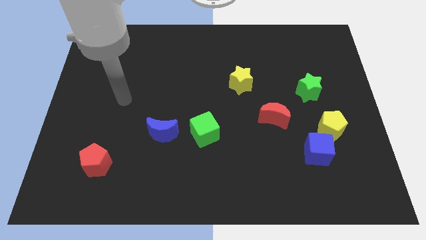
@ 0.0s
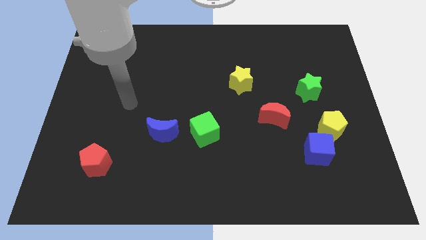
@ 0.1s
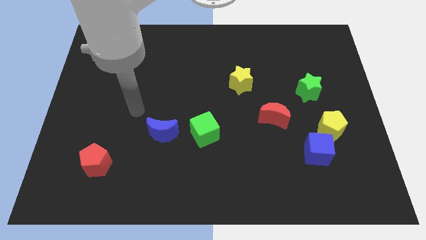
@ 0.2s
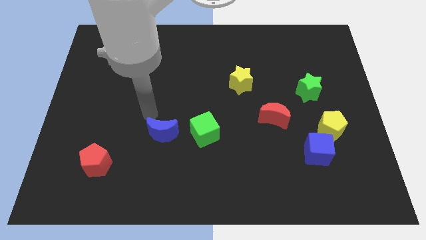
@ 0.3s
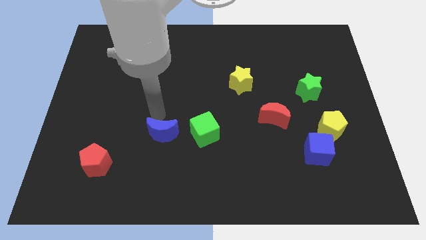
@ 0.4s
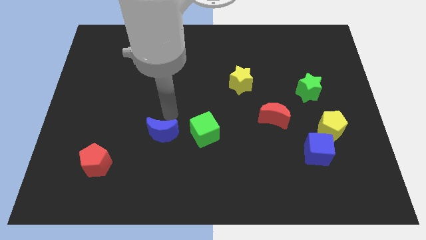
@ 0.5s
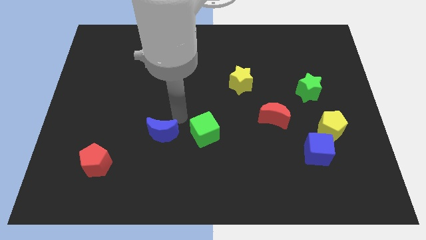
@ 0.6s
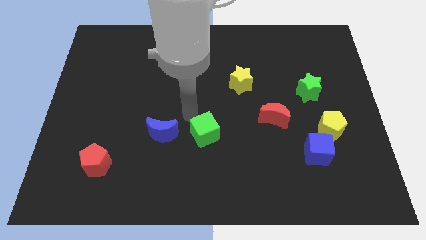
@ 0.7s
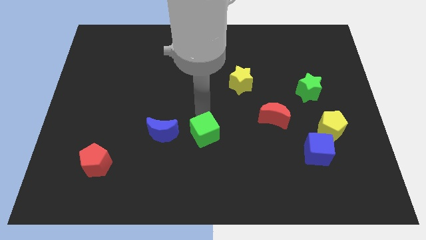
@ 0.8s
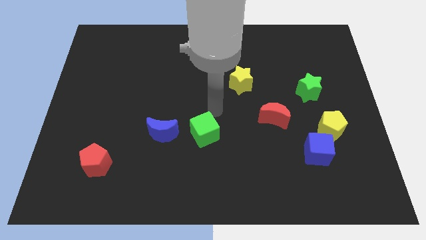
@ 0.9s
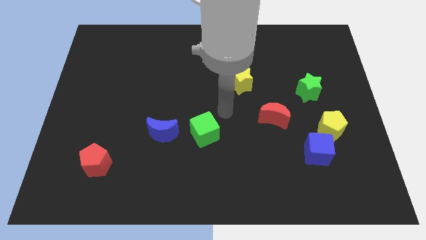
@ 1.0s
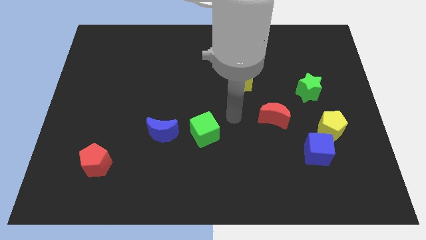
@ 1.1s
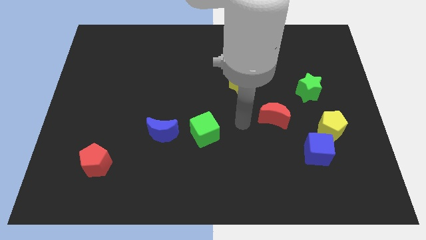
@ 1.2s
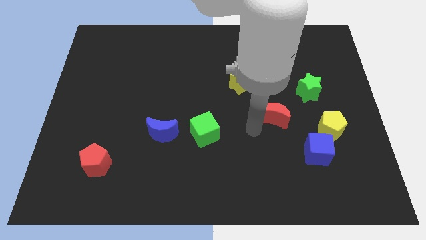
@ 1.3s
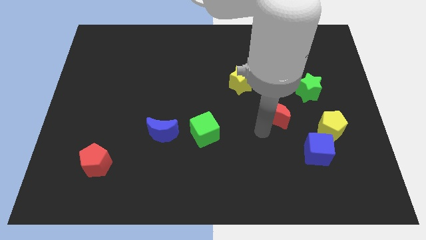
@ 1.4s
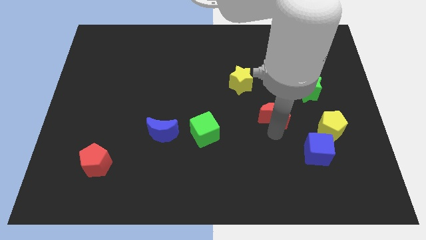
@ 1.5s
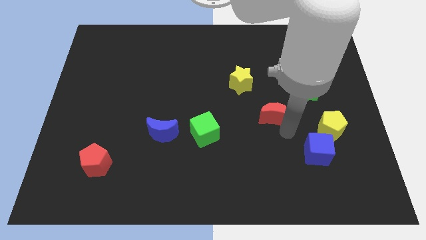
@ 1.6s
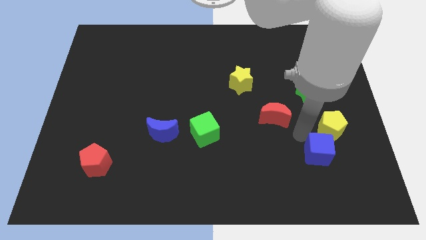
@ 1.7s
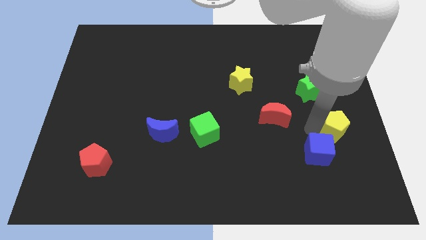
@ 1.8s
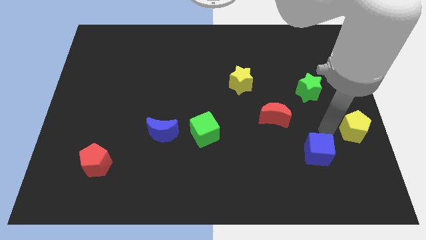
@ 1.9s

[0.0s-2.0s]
move the blue cube away from the yellow pentagon

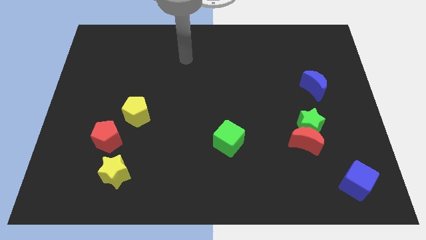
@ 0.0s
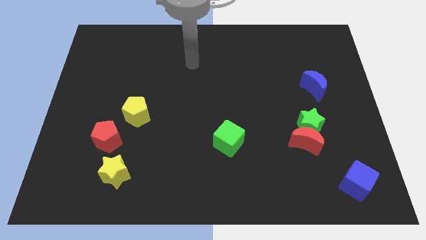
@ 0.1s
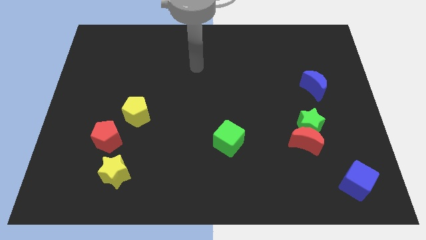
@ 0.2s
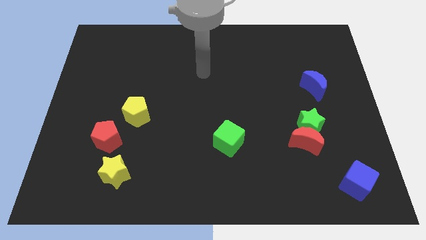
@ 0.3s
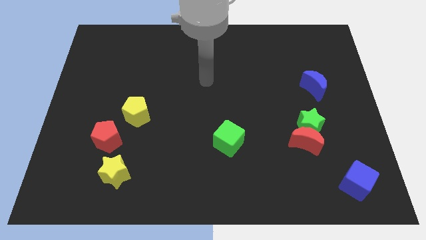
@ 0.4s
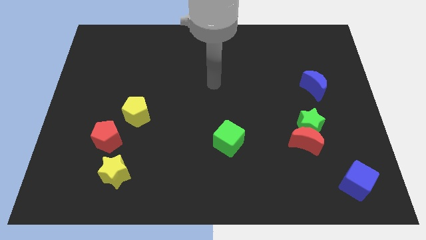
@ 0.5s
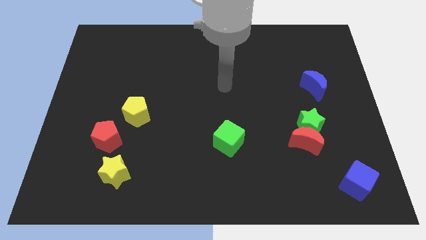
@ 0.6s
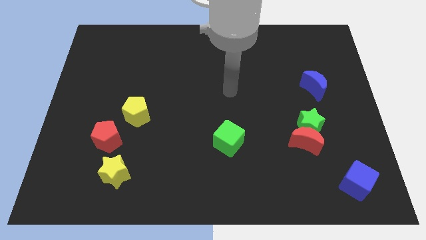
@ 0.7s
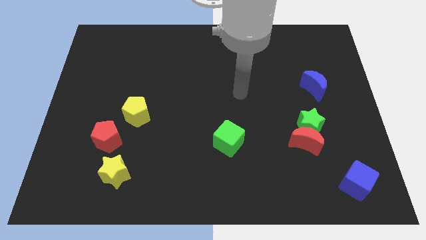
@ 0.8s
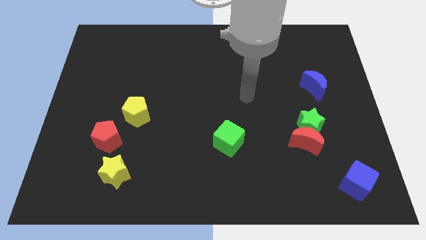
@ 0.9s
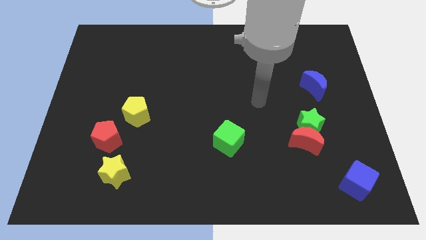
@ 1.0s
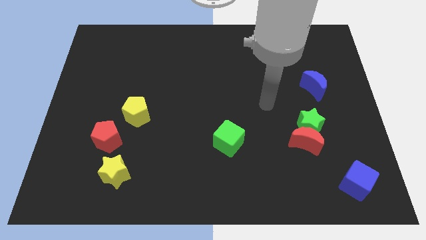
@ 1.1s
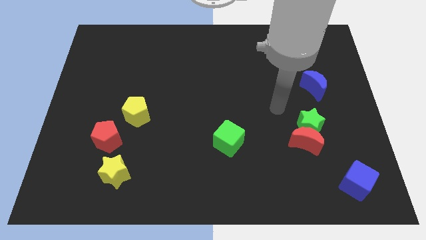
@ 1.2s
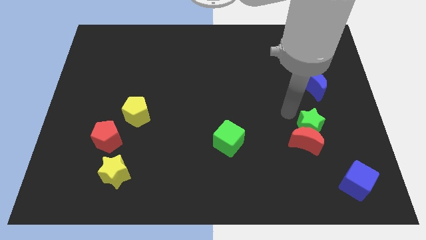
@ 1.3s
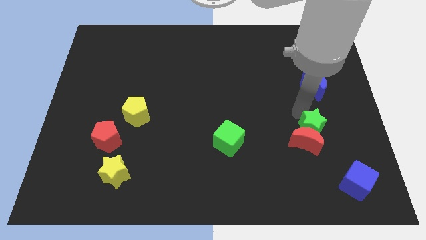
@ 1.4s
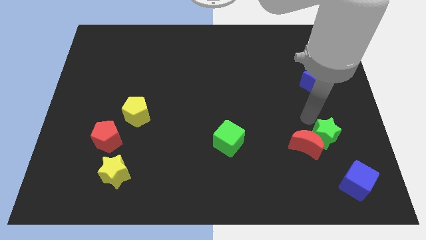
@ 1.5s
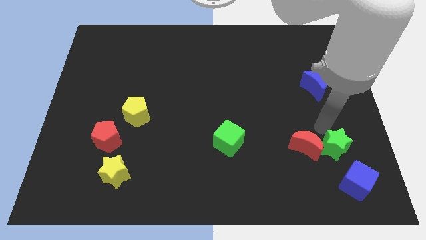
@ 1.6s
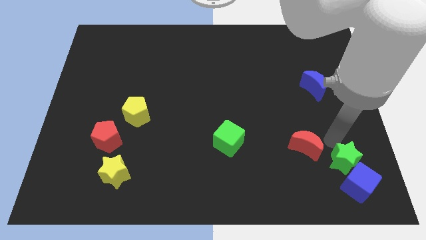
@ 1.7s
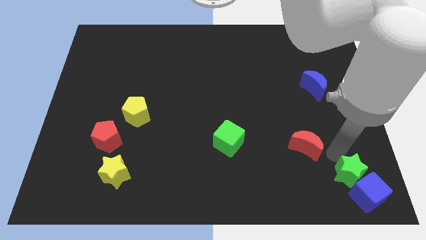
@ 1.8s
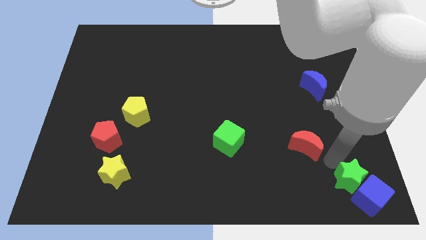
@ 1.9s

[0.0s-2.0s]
pull the red moon apart from the green star

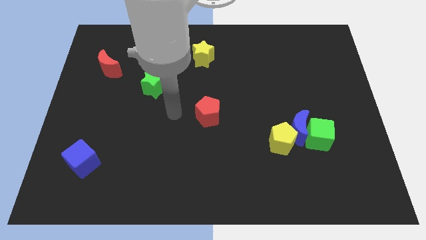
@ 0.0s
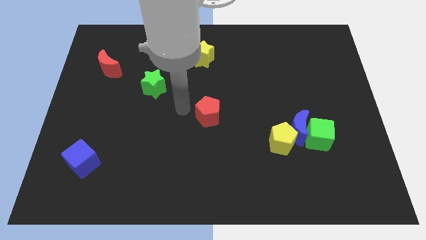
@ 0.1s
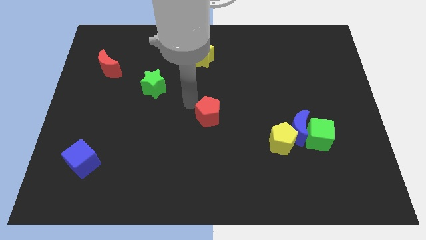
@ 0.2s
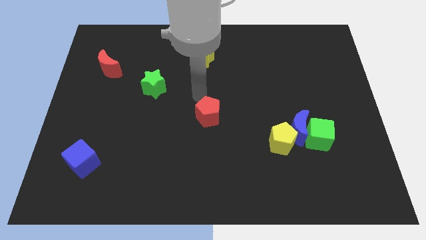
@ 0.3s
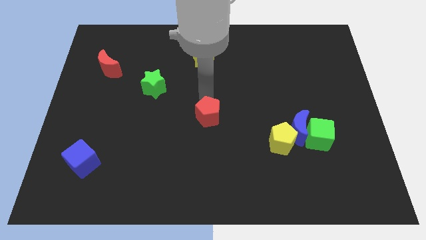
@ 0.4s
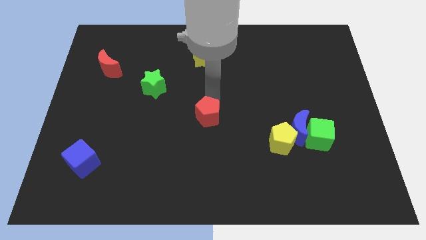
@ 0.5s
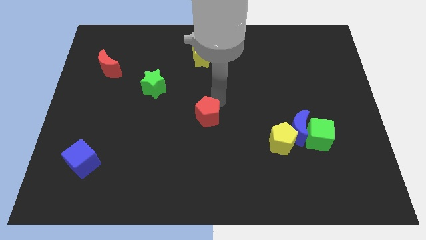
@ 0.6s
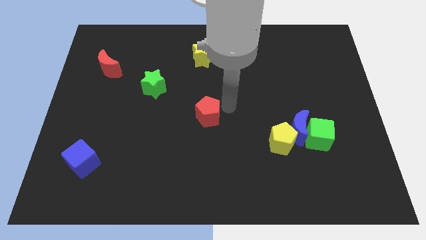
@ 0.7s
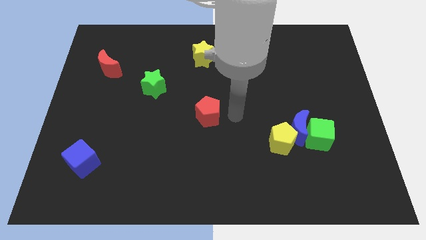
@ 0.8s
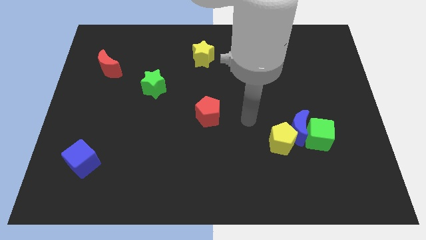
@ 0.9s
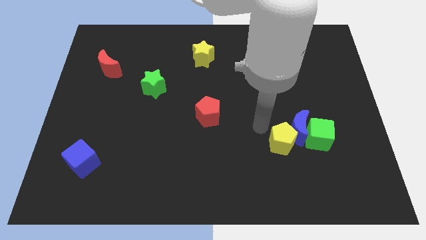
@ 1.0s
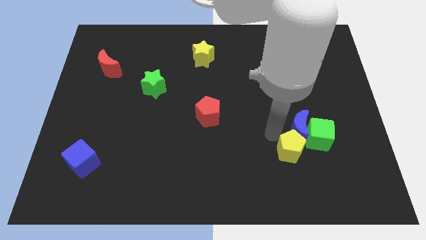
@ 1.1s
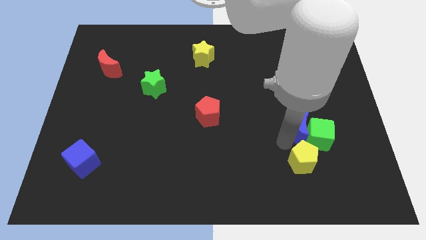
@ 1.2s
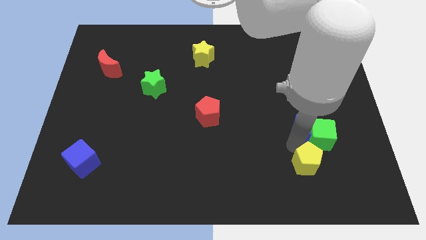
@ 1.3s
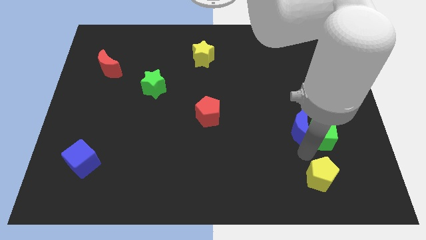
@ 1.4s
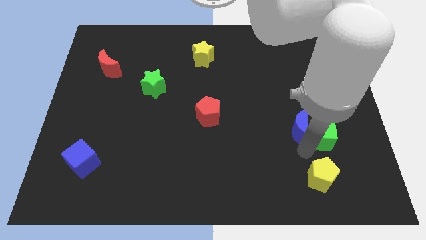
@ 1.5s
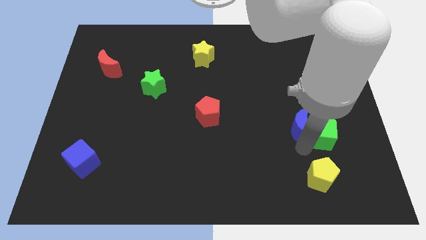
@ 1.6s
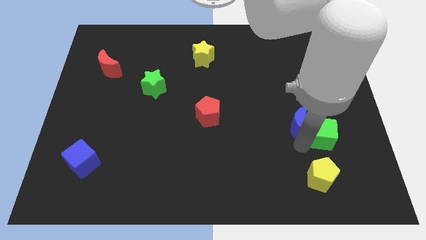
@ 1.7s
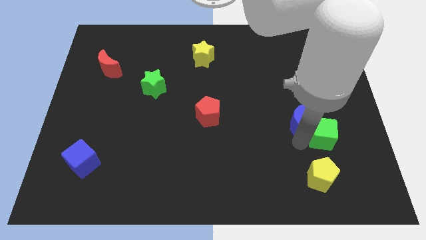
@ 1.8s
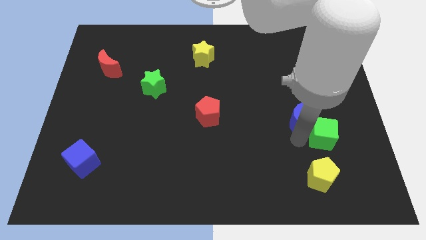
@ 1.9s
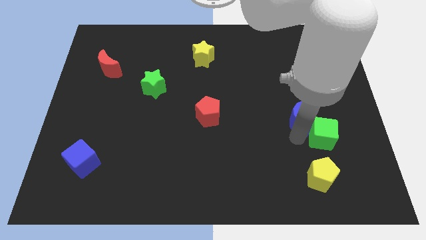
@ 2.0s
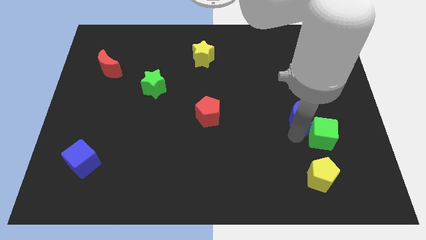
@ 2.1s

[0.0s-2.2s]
move the blue moon away from the green cube and yellow pentagon

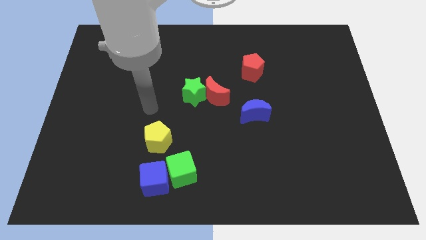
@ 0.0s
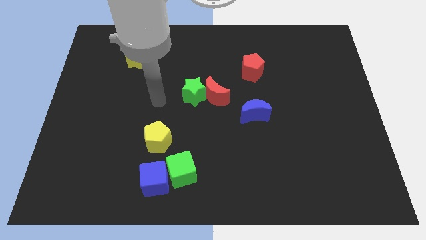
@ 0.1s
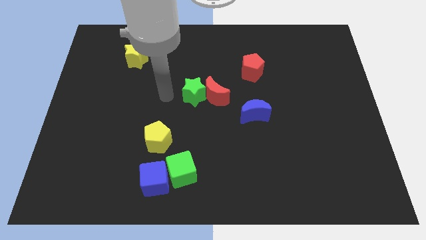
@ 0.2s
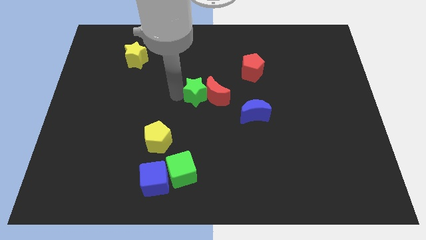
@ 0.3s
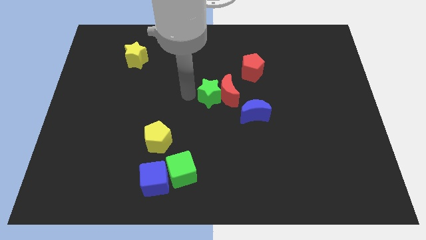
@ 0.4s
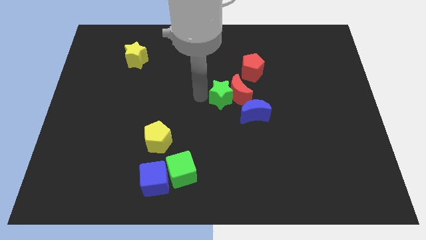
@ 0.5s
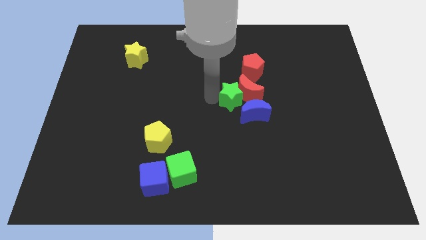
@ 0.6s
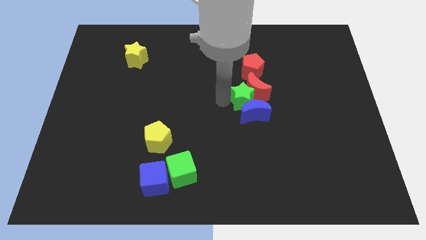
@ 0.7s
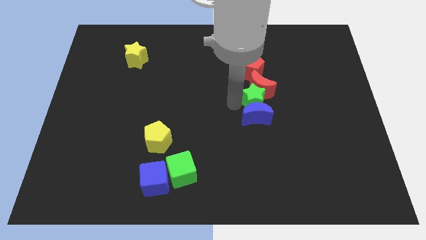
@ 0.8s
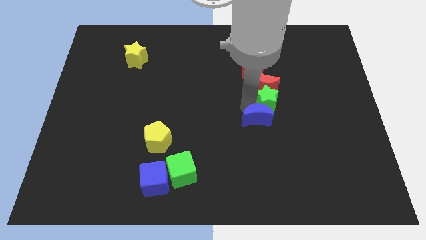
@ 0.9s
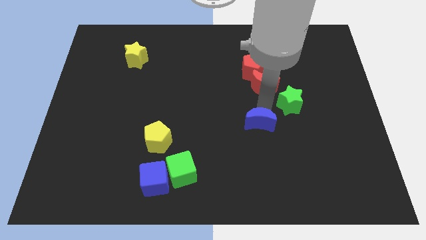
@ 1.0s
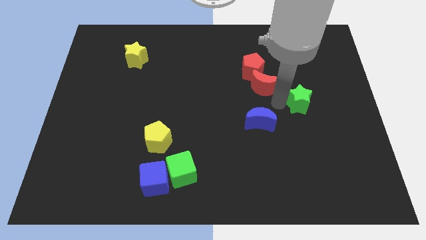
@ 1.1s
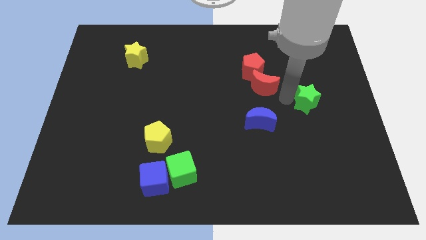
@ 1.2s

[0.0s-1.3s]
separate the red moon from the green star

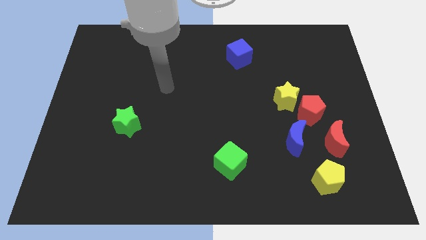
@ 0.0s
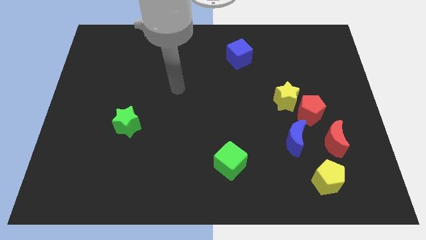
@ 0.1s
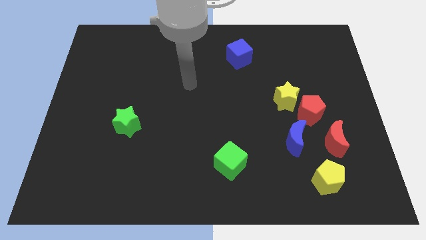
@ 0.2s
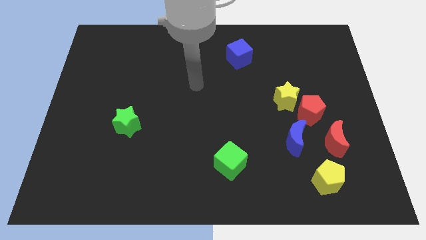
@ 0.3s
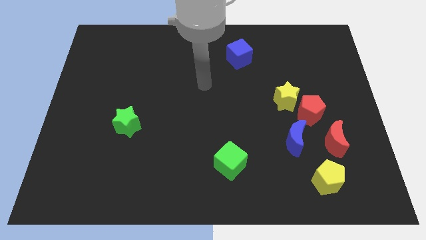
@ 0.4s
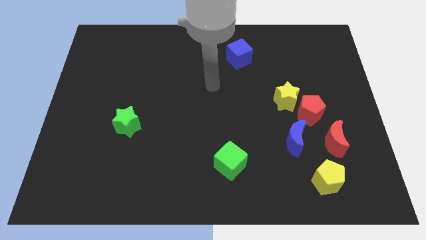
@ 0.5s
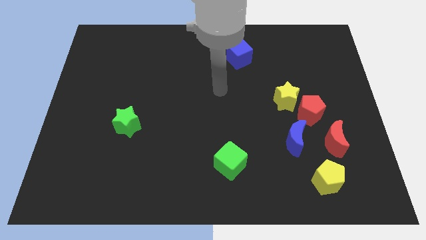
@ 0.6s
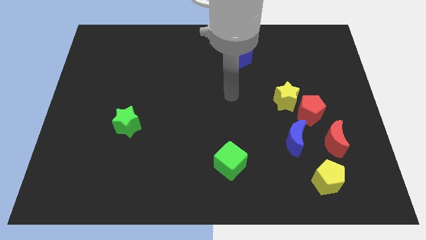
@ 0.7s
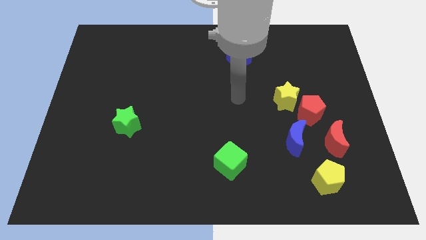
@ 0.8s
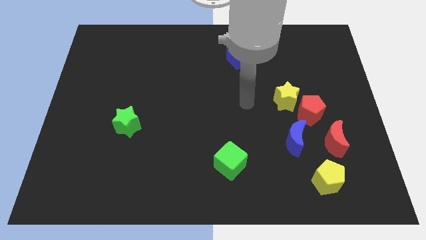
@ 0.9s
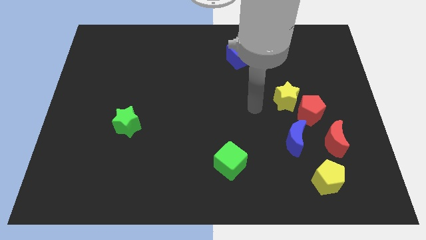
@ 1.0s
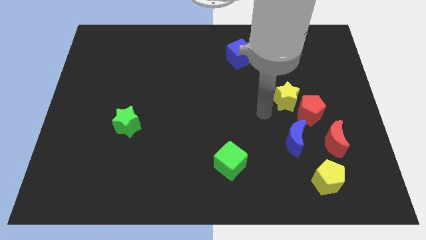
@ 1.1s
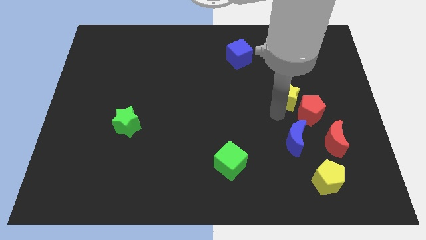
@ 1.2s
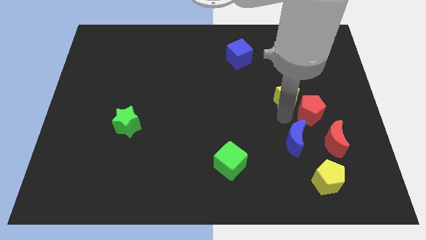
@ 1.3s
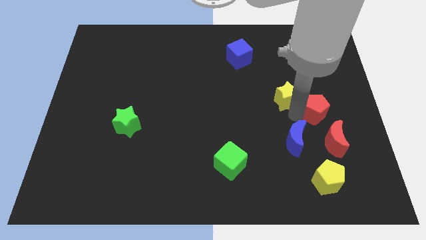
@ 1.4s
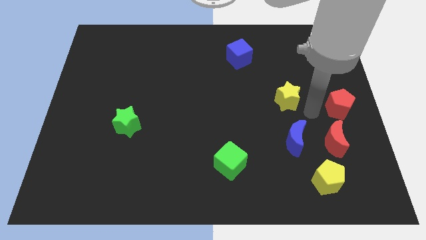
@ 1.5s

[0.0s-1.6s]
pull the yellow star apart from the red pentagon

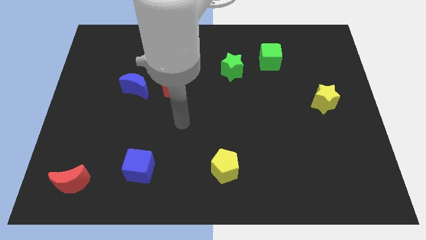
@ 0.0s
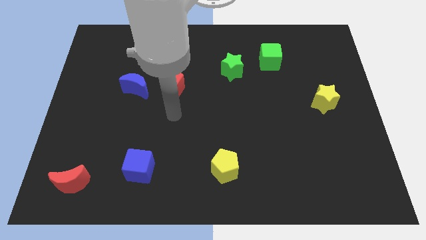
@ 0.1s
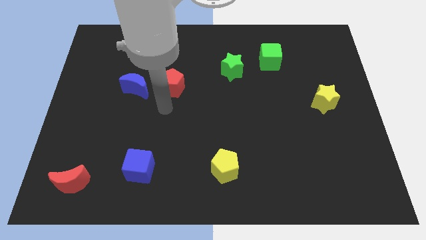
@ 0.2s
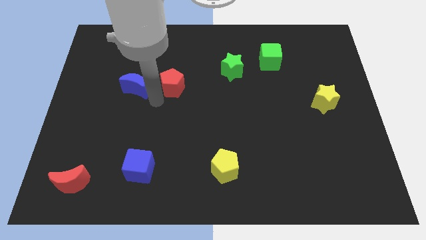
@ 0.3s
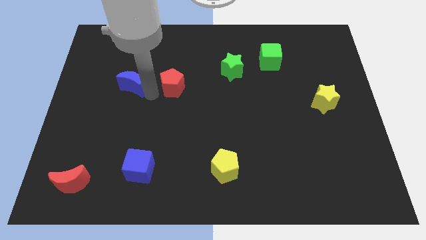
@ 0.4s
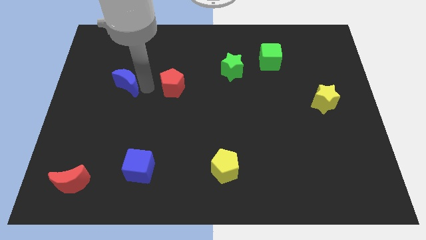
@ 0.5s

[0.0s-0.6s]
move the red pentagon away from the blue moon
